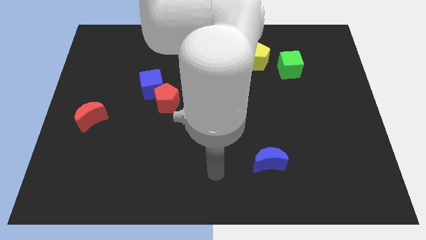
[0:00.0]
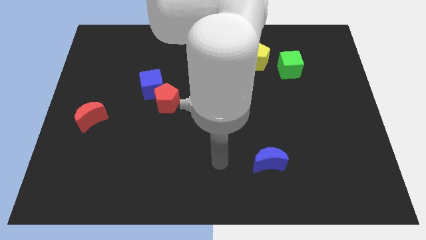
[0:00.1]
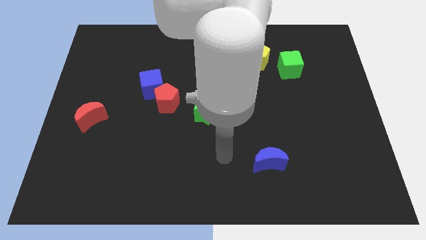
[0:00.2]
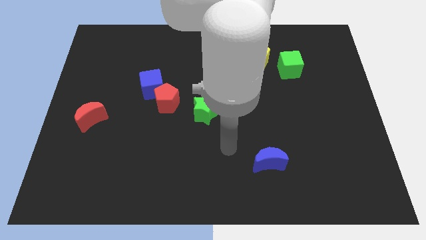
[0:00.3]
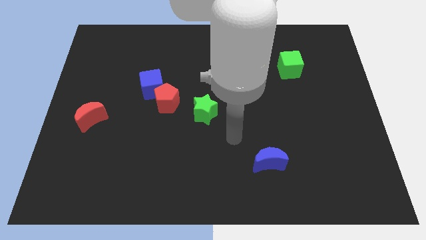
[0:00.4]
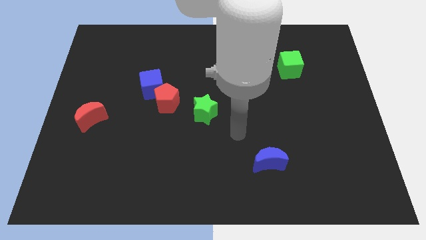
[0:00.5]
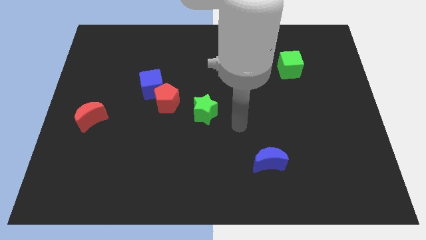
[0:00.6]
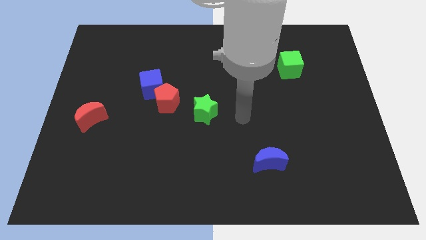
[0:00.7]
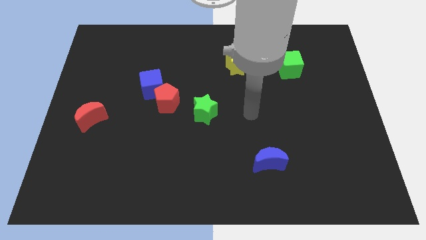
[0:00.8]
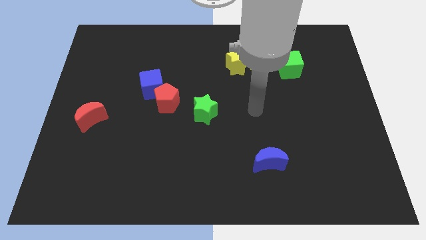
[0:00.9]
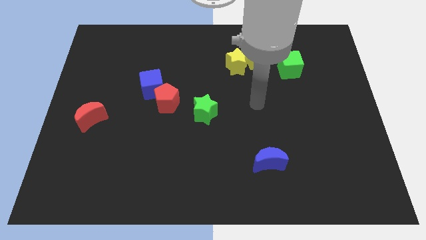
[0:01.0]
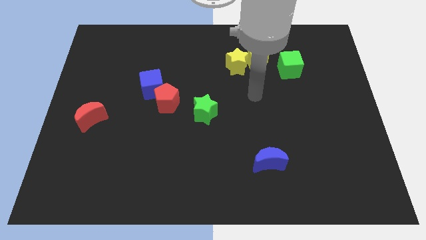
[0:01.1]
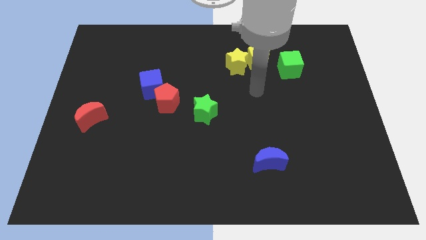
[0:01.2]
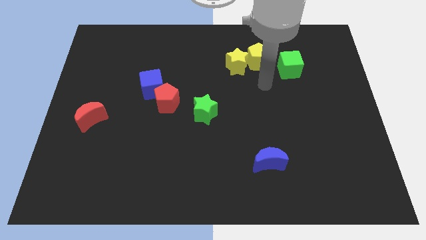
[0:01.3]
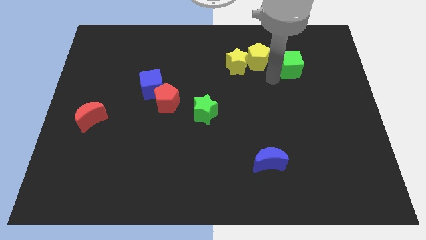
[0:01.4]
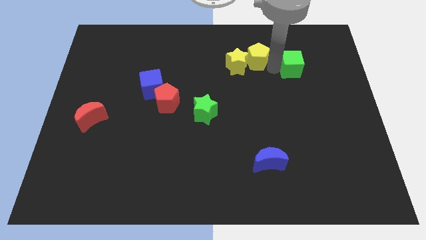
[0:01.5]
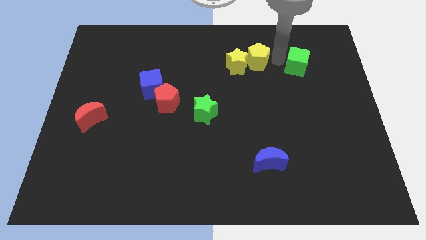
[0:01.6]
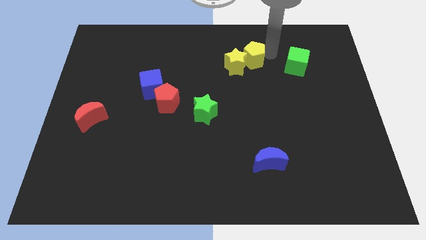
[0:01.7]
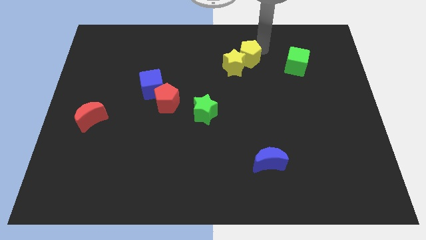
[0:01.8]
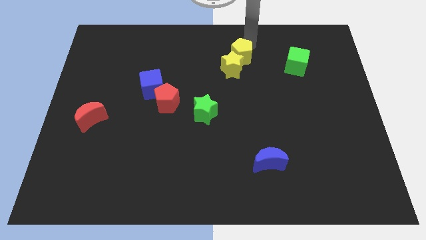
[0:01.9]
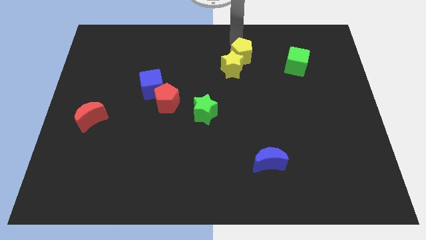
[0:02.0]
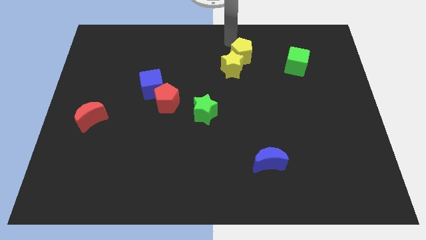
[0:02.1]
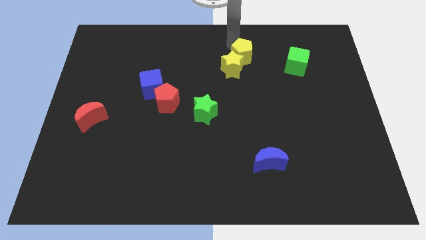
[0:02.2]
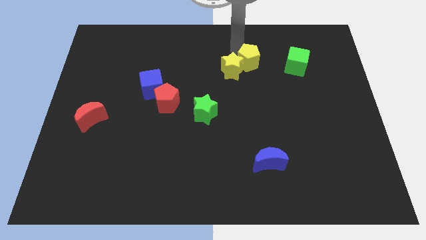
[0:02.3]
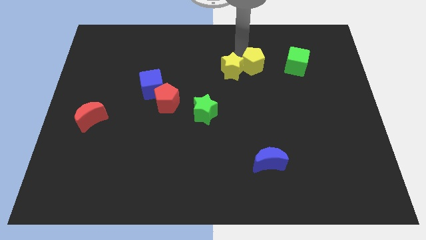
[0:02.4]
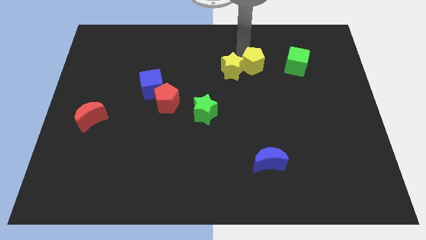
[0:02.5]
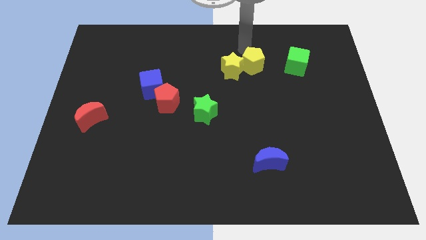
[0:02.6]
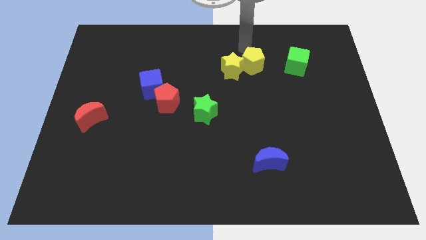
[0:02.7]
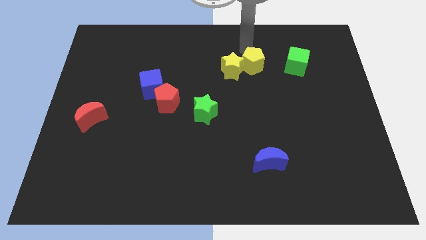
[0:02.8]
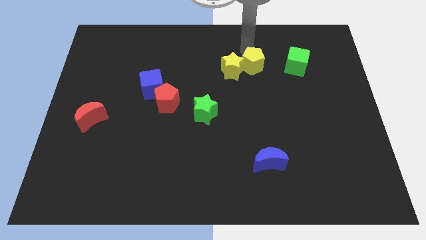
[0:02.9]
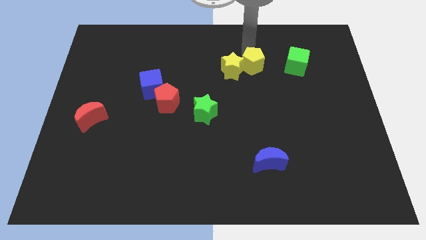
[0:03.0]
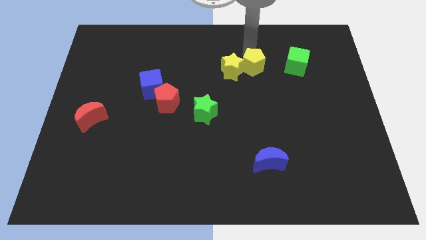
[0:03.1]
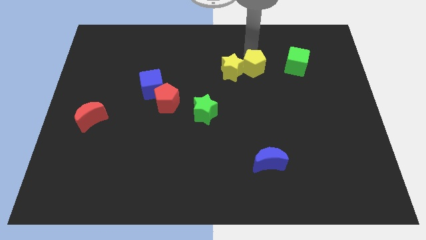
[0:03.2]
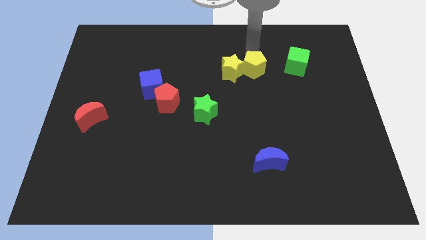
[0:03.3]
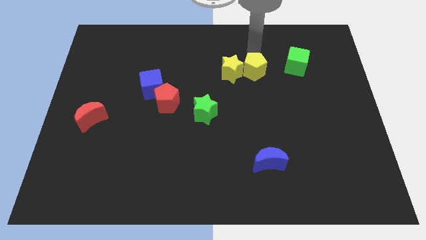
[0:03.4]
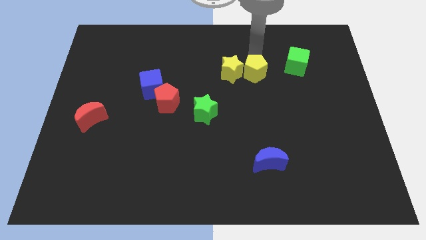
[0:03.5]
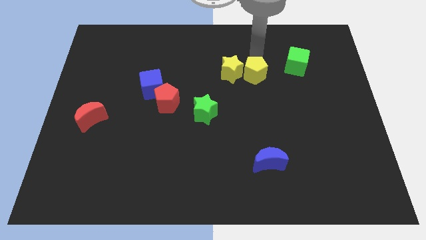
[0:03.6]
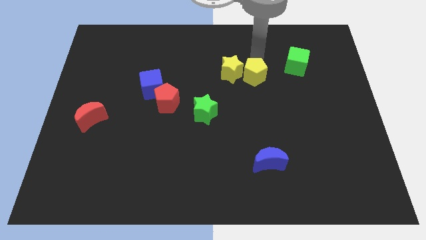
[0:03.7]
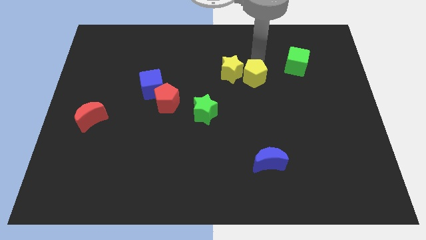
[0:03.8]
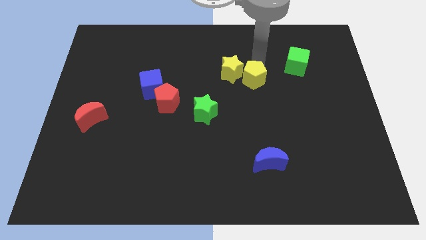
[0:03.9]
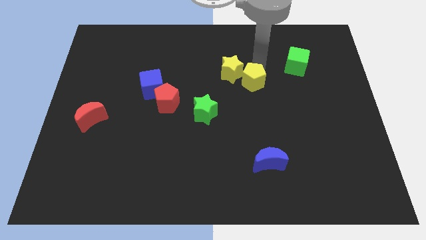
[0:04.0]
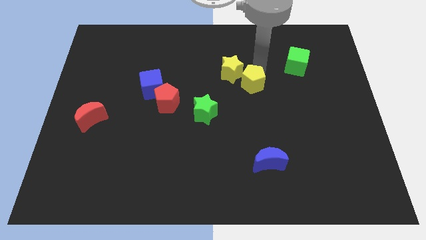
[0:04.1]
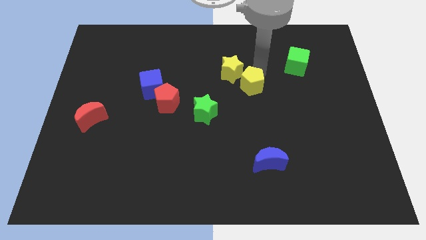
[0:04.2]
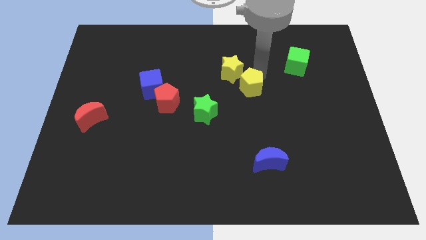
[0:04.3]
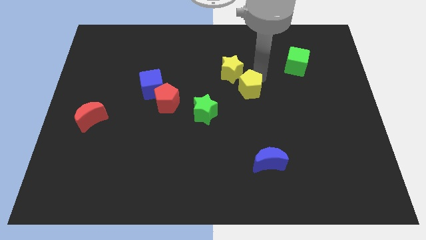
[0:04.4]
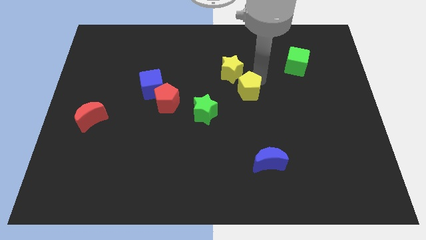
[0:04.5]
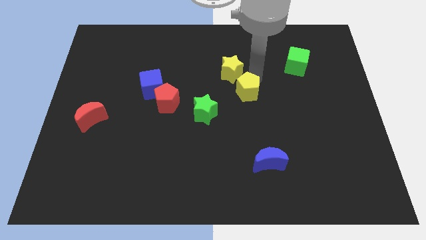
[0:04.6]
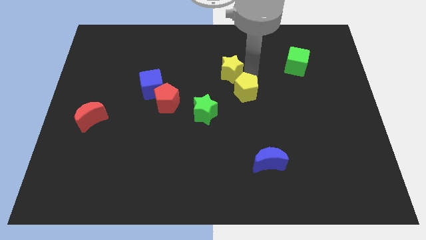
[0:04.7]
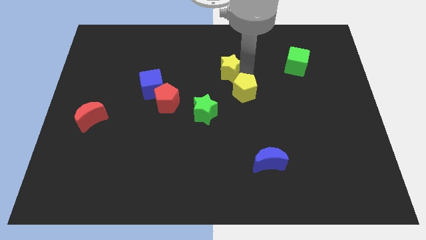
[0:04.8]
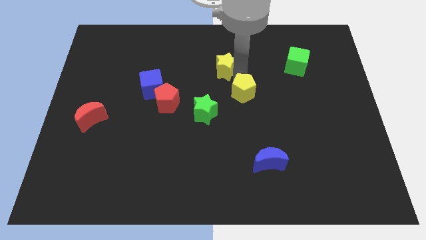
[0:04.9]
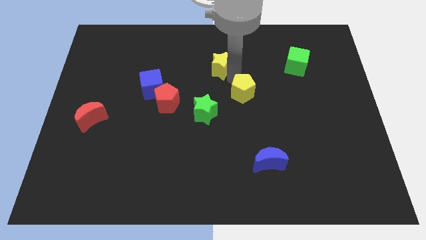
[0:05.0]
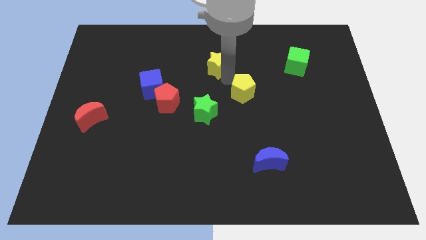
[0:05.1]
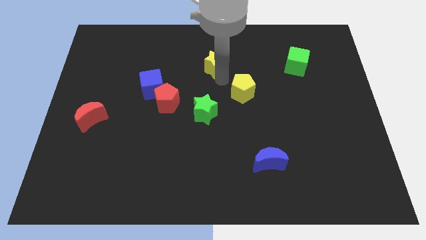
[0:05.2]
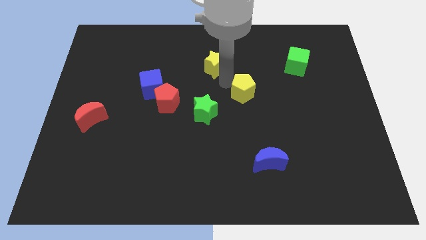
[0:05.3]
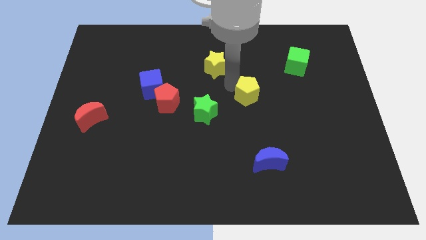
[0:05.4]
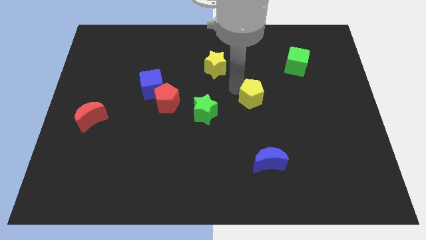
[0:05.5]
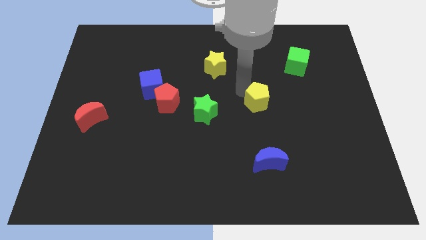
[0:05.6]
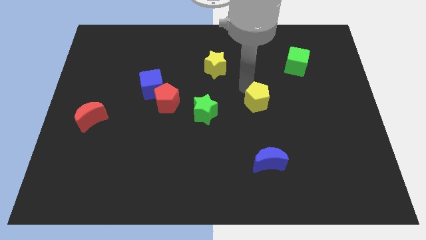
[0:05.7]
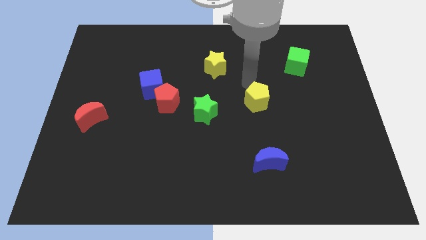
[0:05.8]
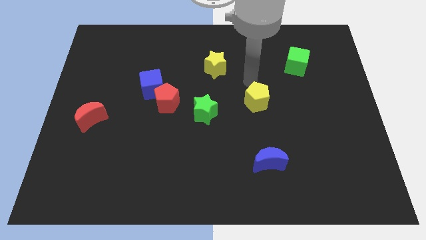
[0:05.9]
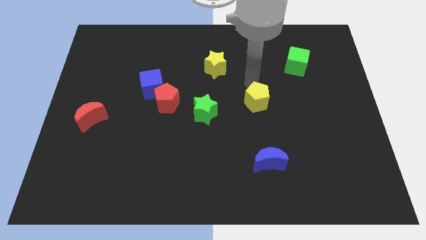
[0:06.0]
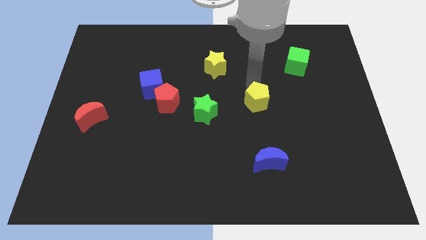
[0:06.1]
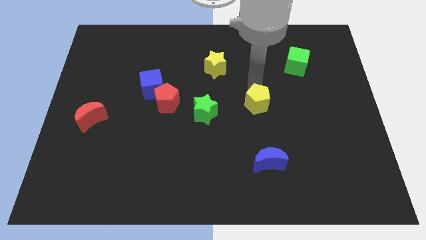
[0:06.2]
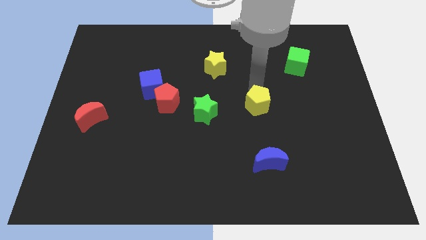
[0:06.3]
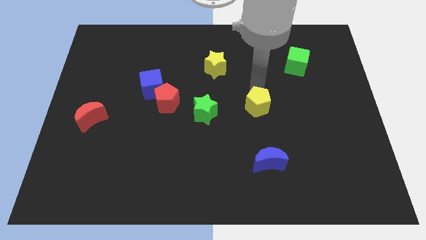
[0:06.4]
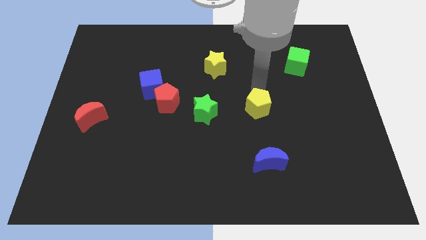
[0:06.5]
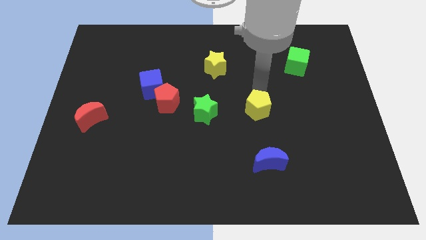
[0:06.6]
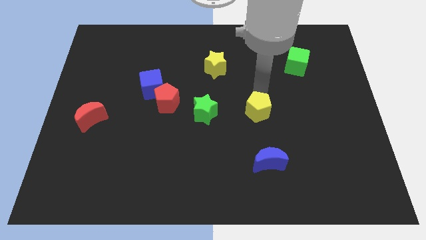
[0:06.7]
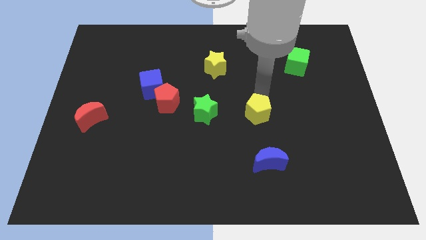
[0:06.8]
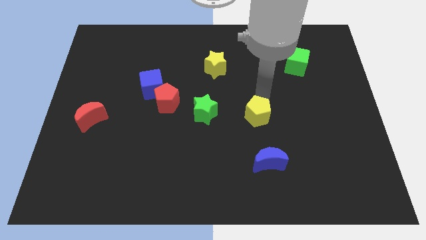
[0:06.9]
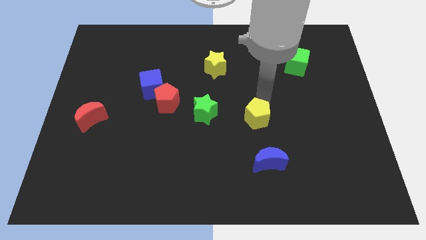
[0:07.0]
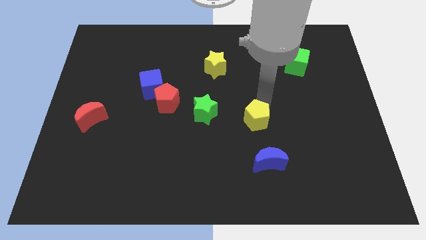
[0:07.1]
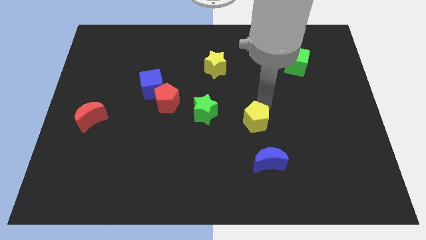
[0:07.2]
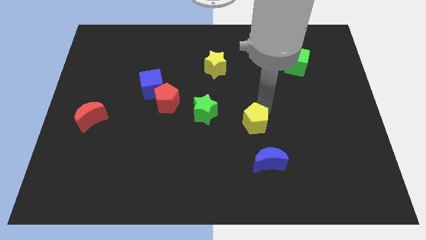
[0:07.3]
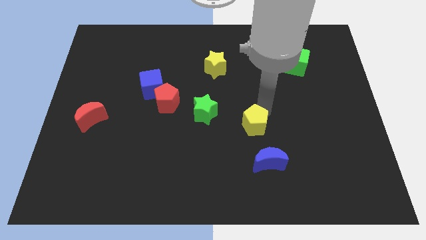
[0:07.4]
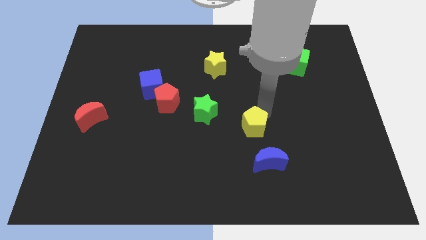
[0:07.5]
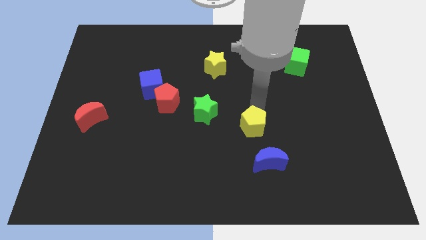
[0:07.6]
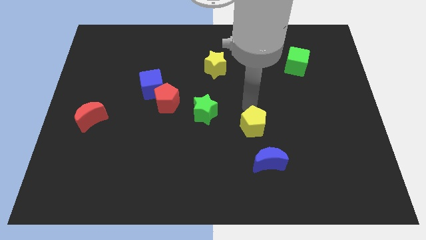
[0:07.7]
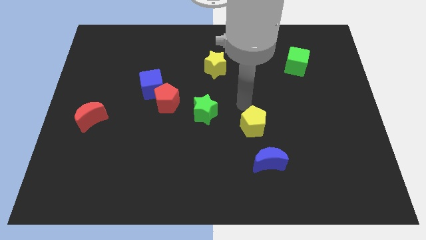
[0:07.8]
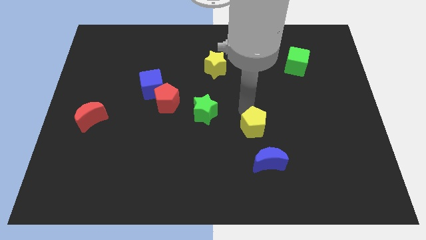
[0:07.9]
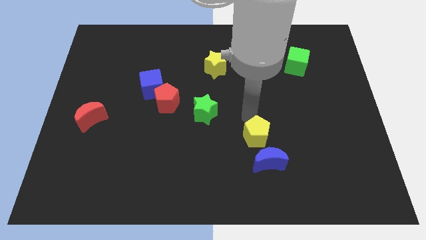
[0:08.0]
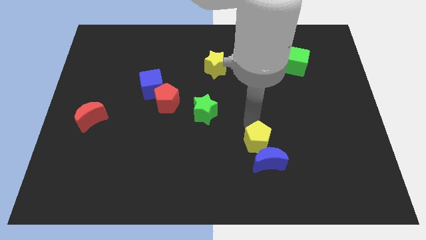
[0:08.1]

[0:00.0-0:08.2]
put the yellow pentagon next to the blue moon
